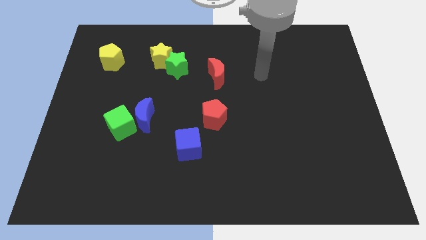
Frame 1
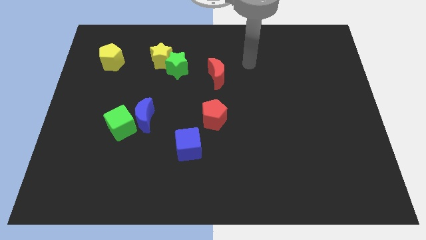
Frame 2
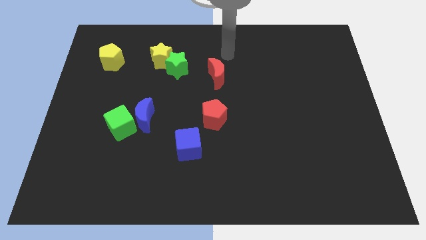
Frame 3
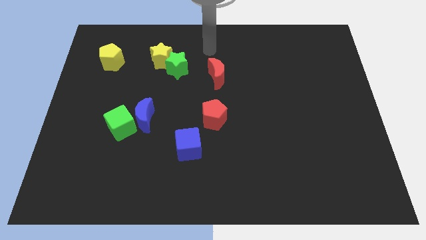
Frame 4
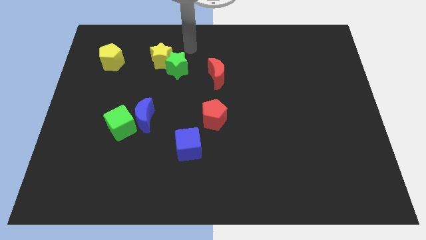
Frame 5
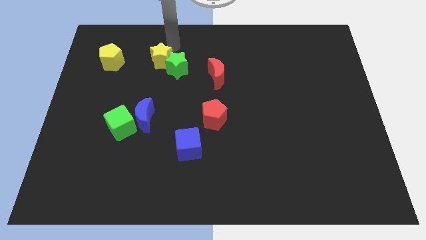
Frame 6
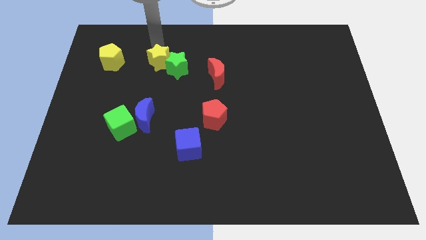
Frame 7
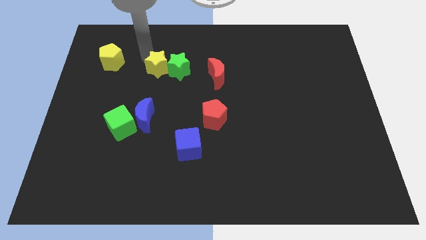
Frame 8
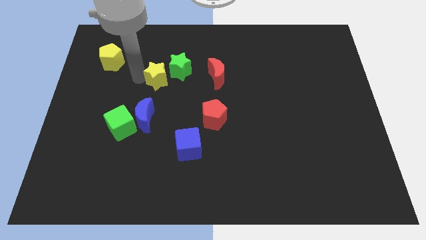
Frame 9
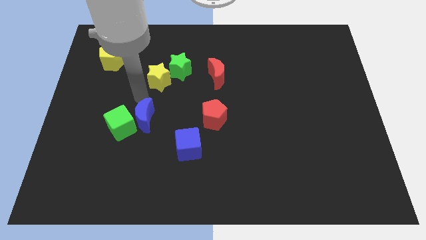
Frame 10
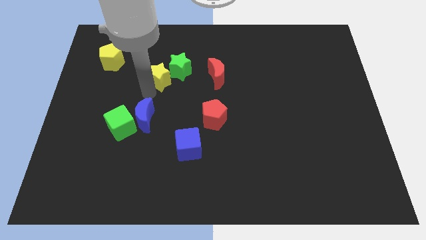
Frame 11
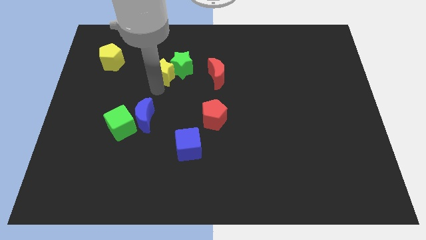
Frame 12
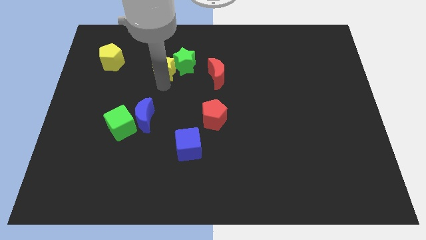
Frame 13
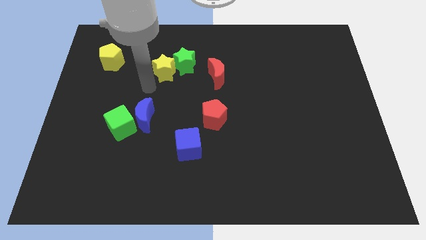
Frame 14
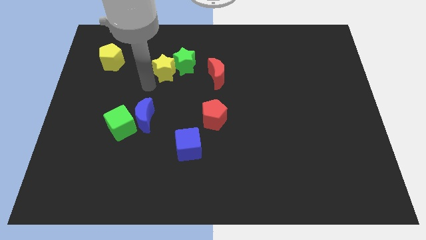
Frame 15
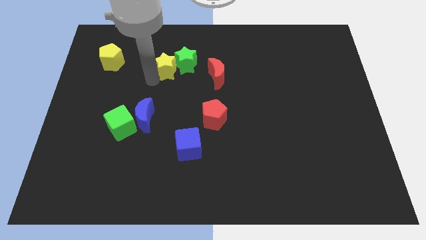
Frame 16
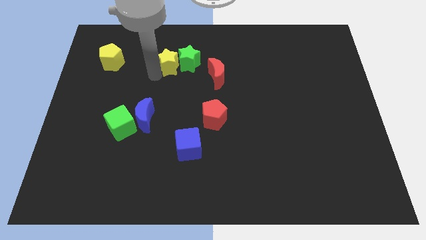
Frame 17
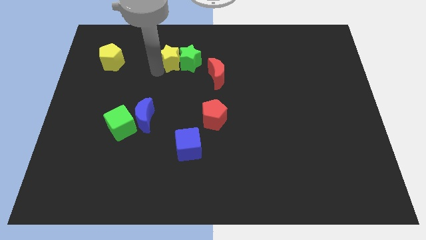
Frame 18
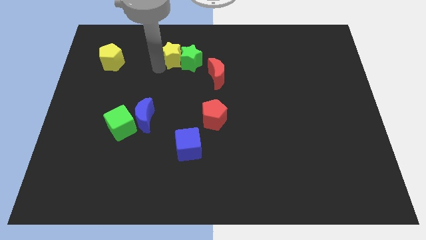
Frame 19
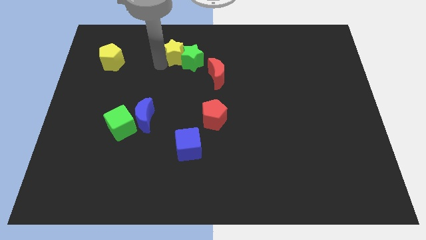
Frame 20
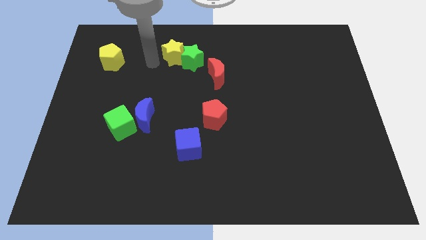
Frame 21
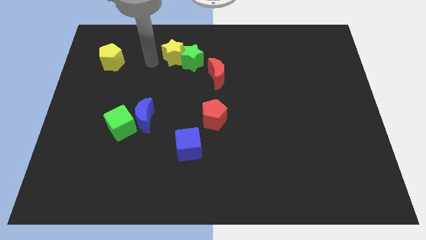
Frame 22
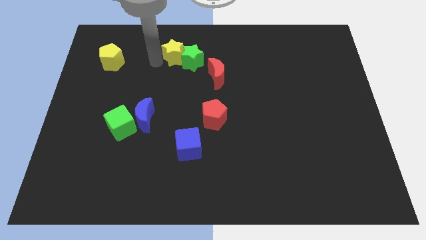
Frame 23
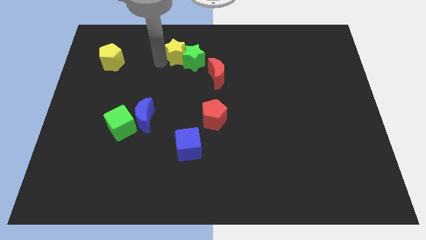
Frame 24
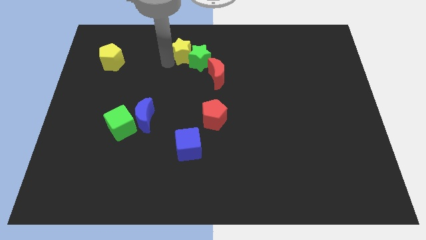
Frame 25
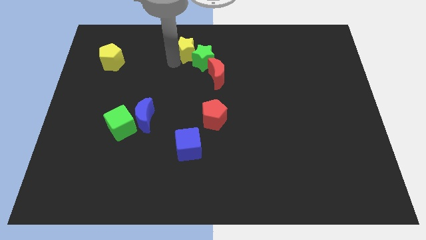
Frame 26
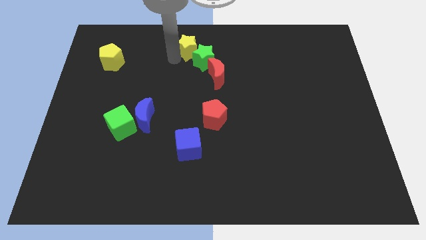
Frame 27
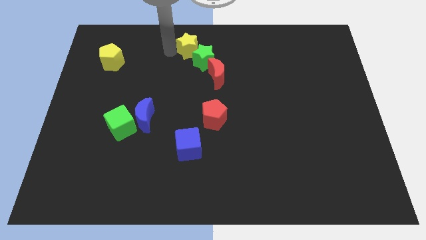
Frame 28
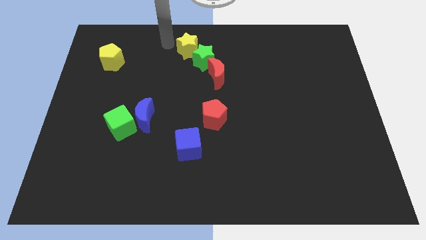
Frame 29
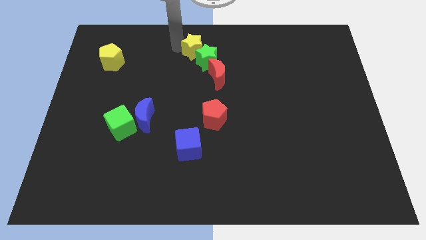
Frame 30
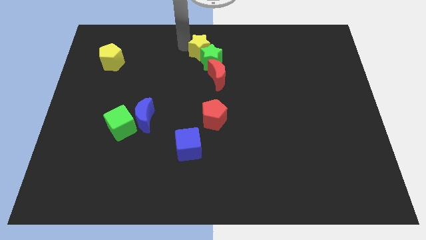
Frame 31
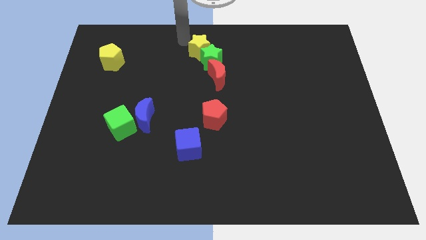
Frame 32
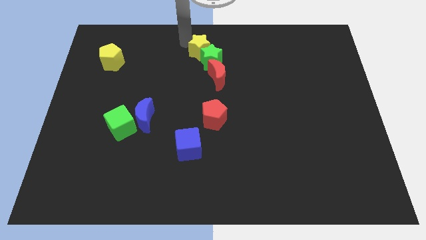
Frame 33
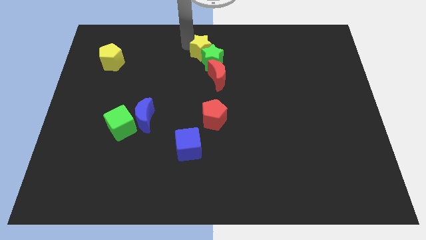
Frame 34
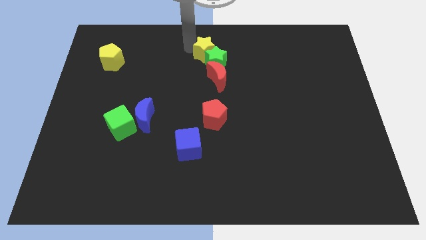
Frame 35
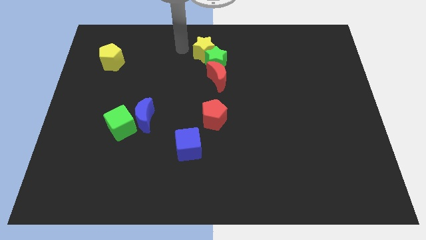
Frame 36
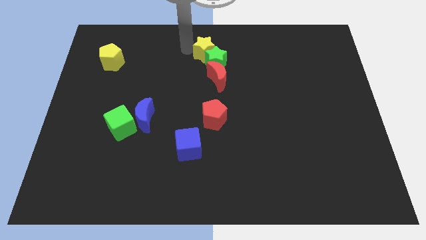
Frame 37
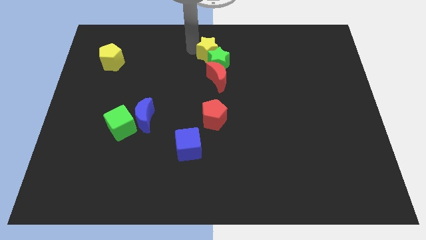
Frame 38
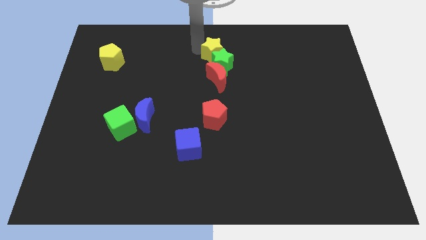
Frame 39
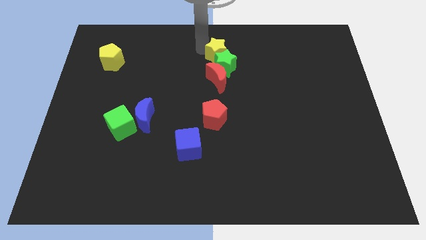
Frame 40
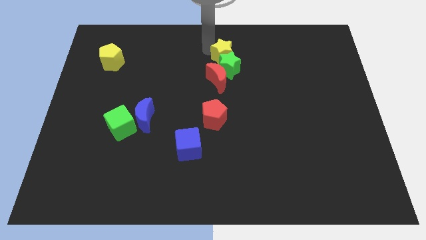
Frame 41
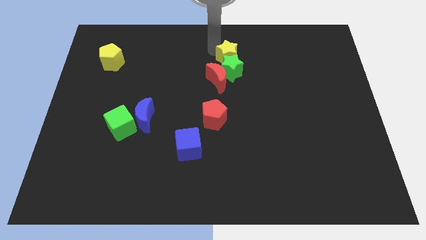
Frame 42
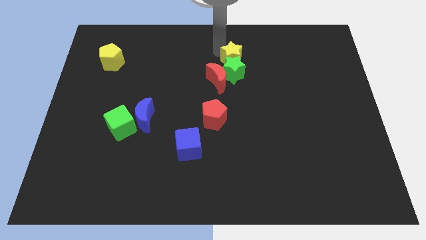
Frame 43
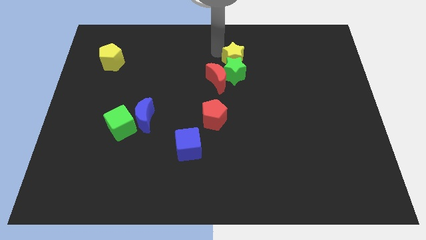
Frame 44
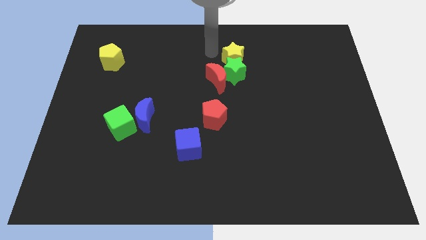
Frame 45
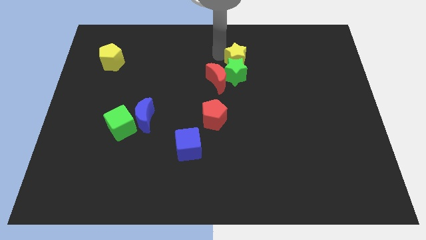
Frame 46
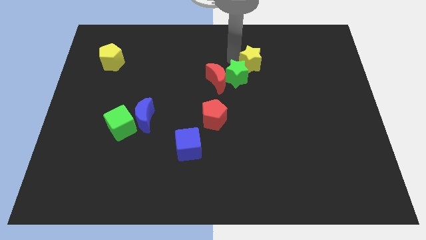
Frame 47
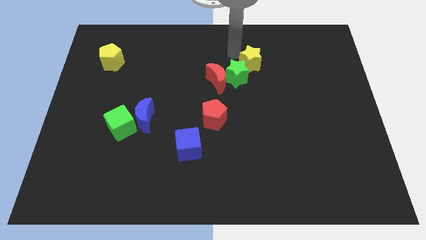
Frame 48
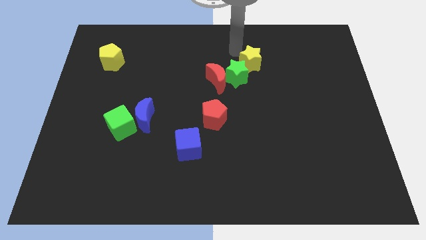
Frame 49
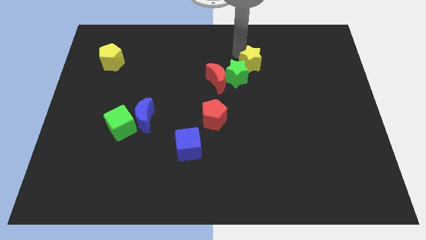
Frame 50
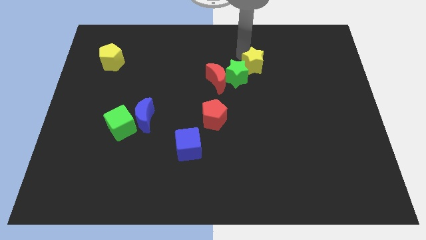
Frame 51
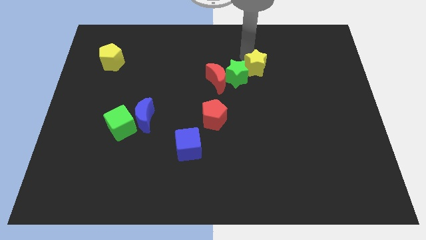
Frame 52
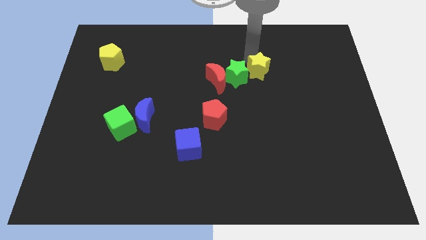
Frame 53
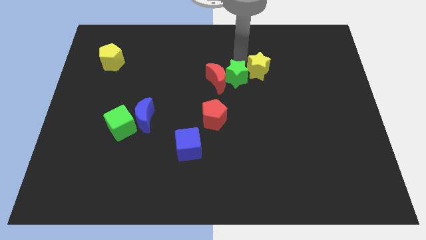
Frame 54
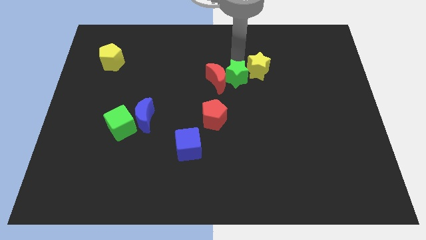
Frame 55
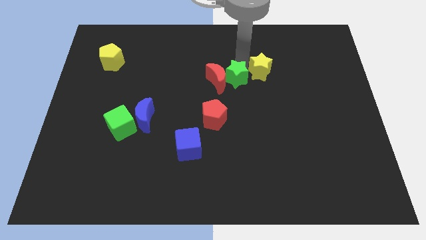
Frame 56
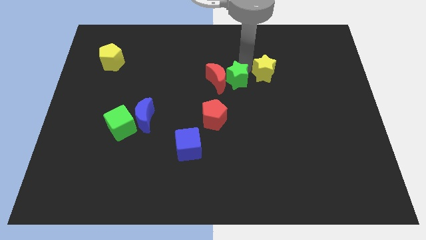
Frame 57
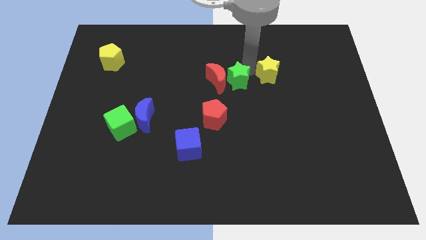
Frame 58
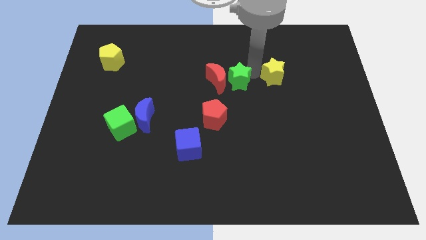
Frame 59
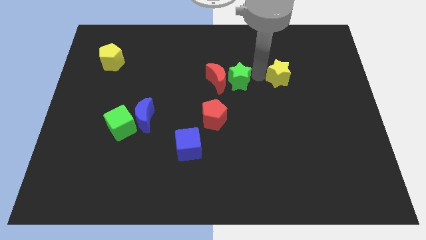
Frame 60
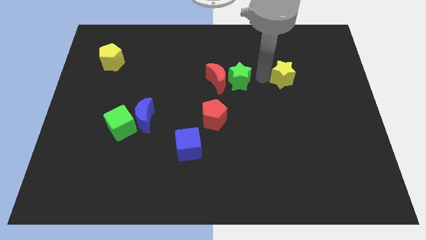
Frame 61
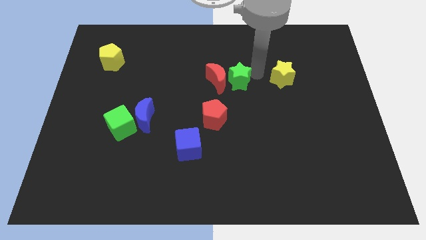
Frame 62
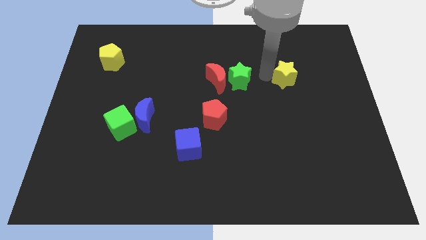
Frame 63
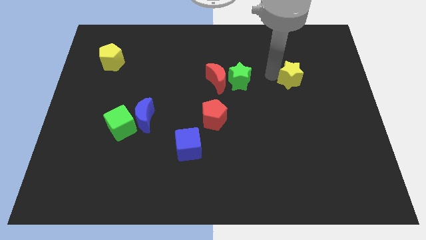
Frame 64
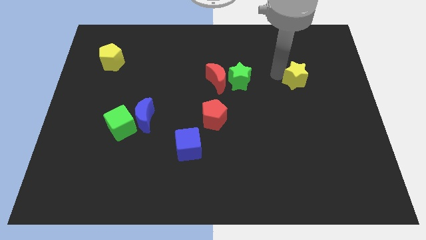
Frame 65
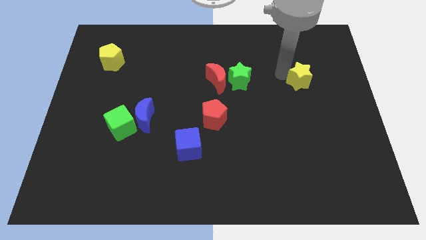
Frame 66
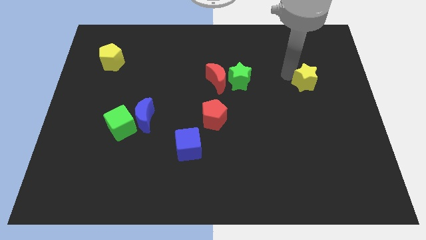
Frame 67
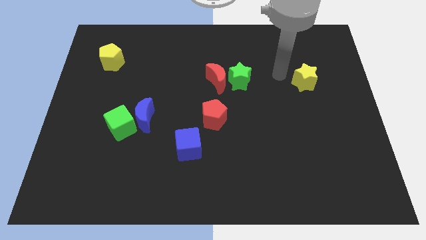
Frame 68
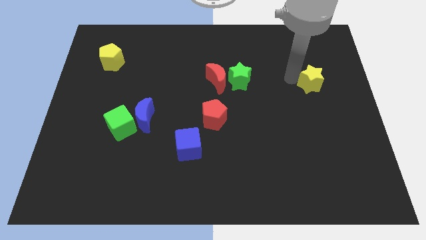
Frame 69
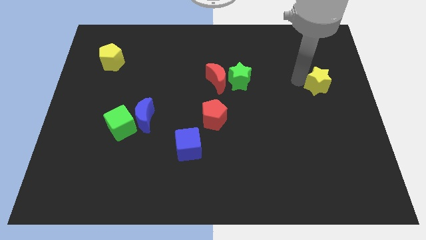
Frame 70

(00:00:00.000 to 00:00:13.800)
slide the yellow star to the center right
